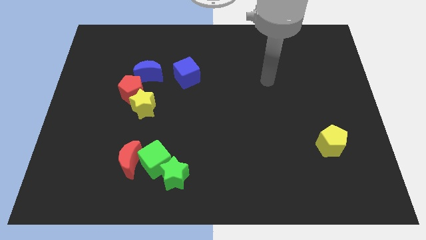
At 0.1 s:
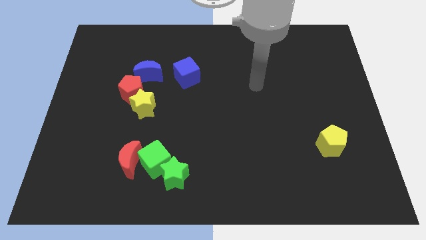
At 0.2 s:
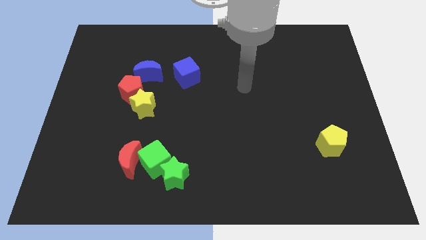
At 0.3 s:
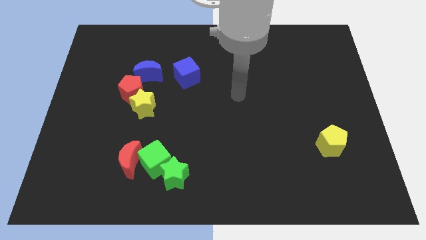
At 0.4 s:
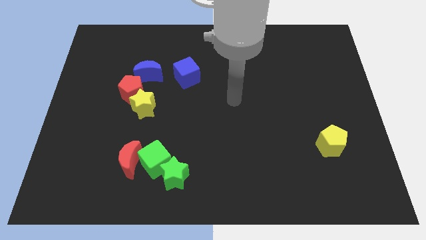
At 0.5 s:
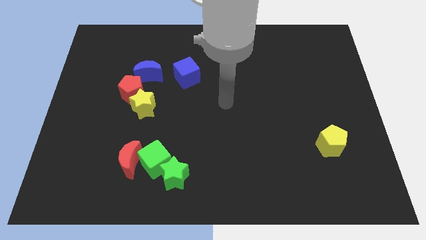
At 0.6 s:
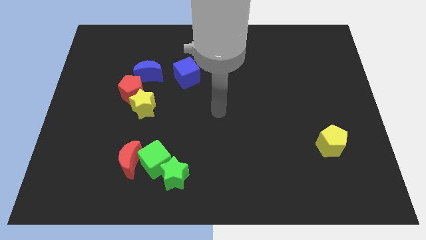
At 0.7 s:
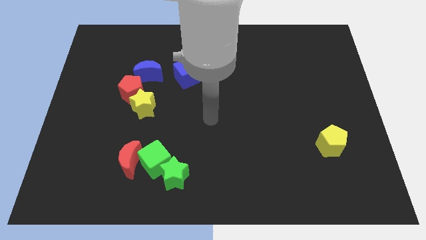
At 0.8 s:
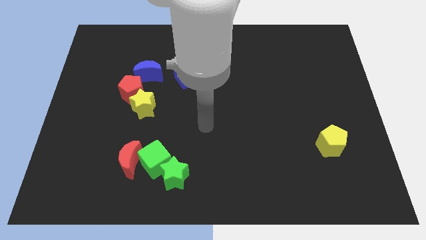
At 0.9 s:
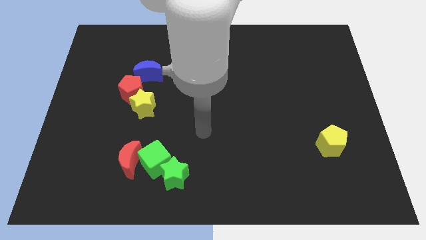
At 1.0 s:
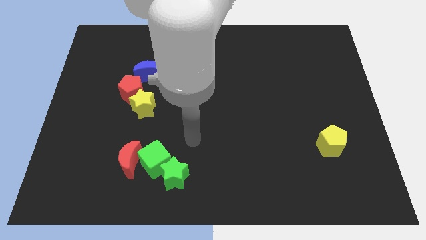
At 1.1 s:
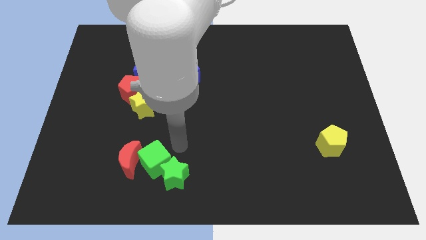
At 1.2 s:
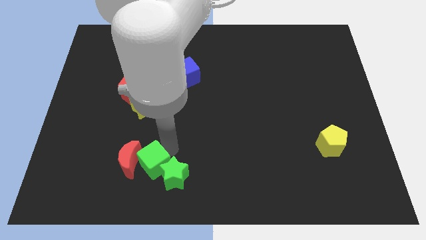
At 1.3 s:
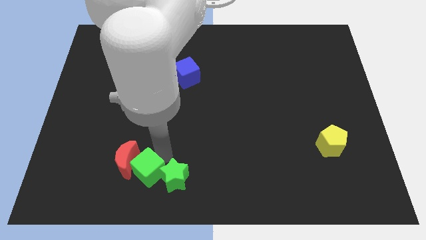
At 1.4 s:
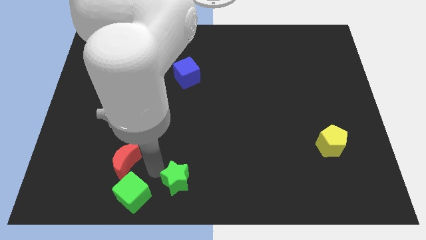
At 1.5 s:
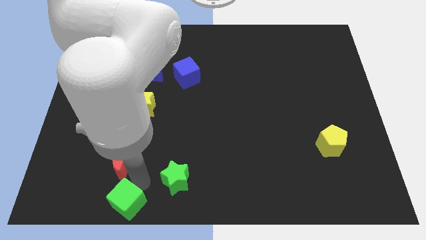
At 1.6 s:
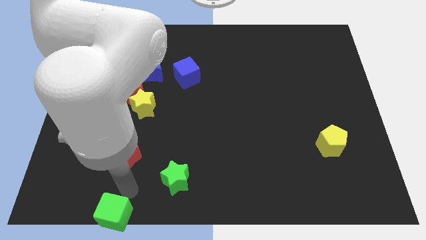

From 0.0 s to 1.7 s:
move the red moon away from the green cube

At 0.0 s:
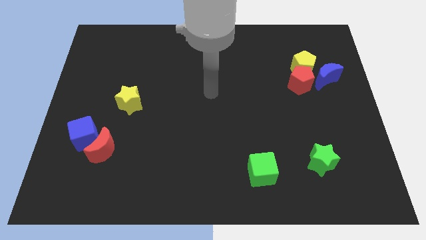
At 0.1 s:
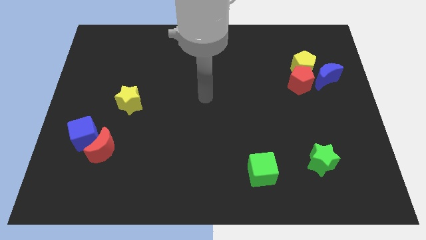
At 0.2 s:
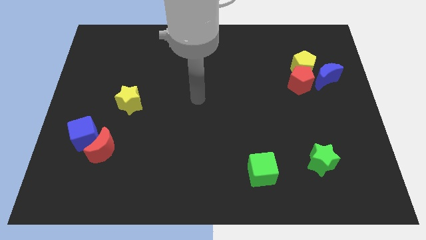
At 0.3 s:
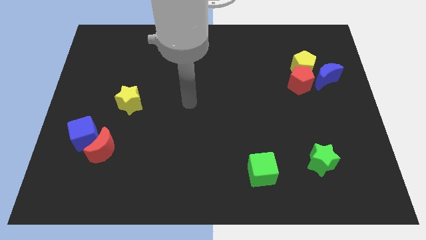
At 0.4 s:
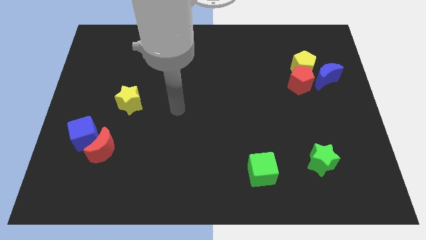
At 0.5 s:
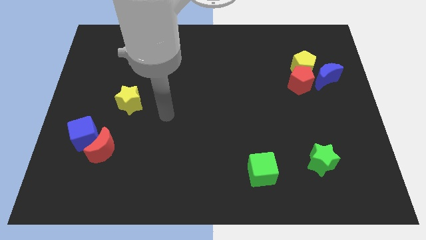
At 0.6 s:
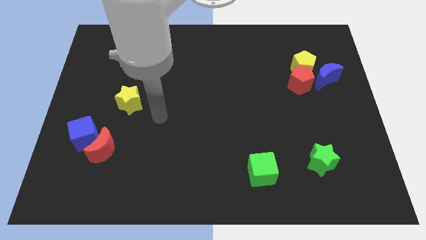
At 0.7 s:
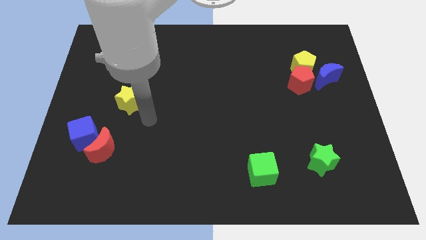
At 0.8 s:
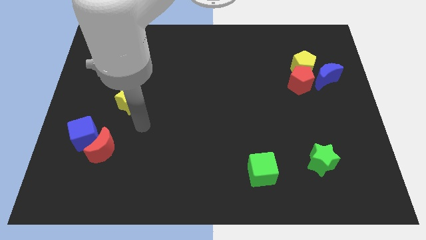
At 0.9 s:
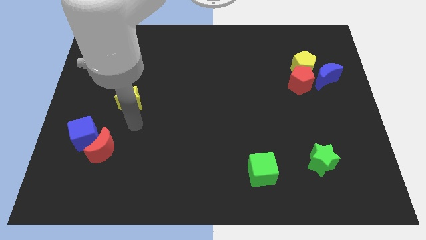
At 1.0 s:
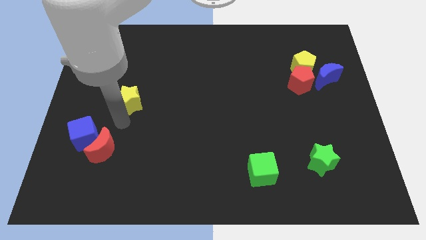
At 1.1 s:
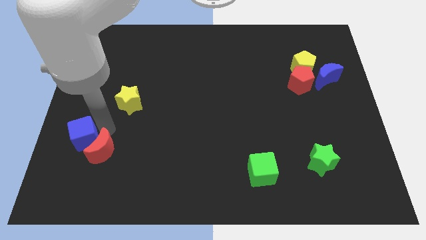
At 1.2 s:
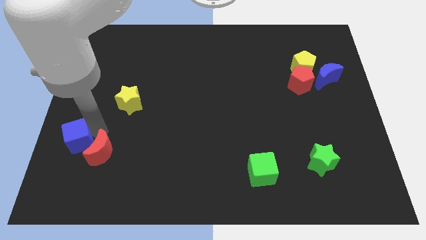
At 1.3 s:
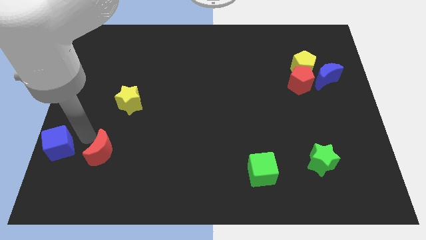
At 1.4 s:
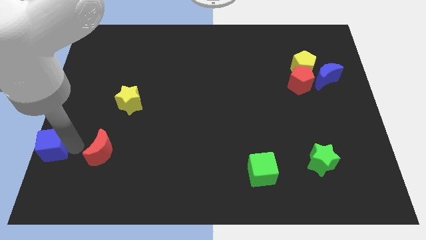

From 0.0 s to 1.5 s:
move the red moon away from the blue cube

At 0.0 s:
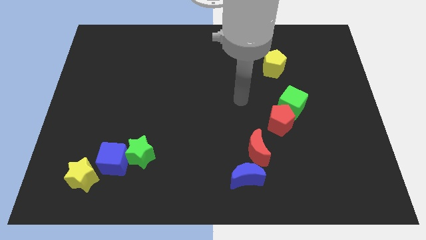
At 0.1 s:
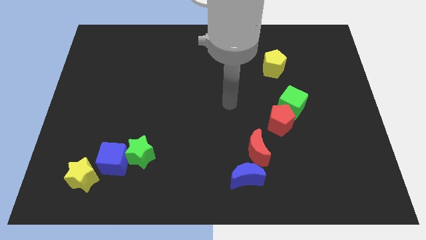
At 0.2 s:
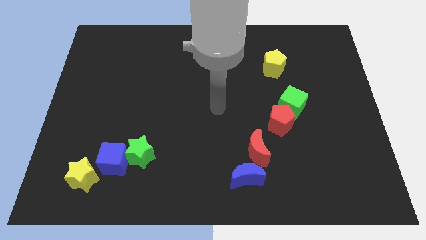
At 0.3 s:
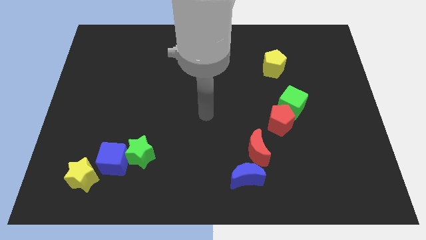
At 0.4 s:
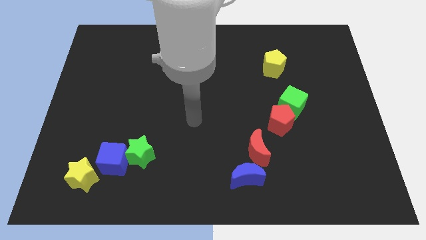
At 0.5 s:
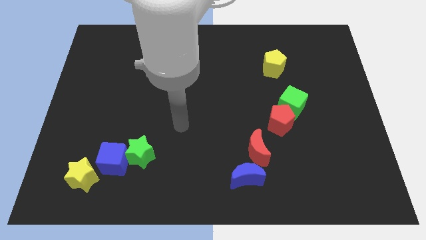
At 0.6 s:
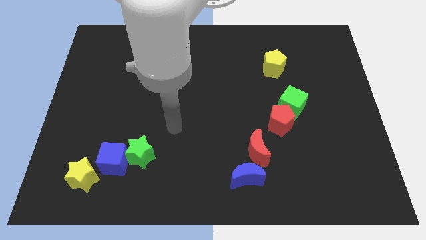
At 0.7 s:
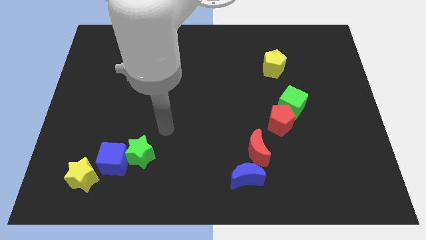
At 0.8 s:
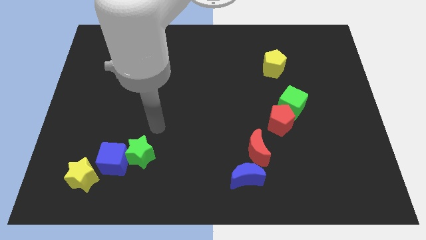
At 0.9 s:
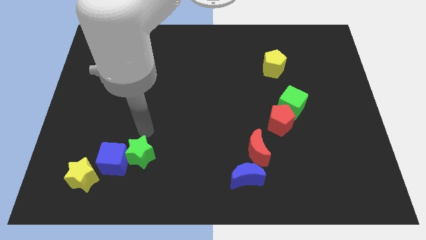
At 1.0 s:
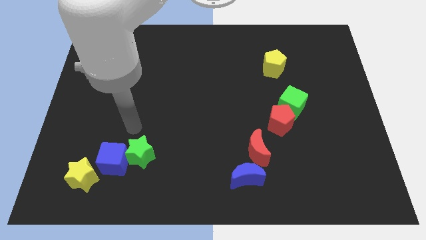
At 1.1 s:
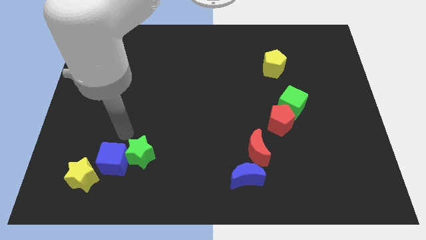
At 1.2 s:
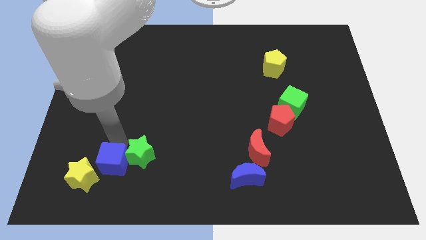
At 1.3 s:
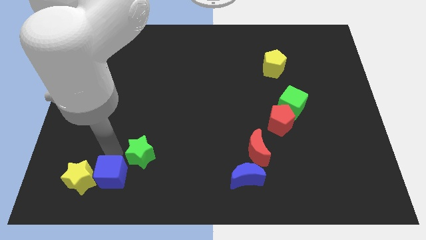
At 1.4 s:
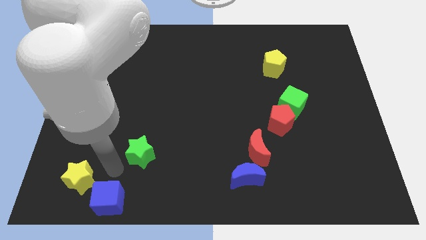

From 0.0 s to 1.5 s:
move the green star away from the blue cube

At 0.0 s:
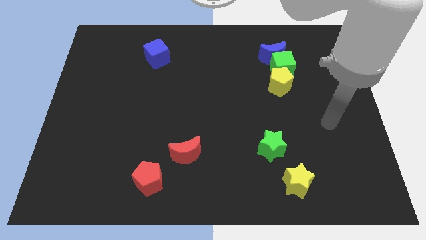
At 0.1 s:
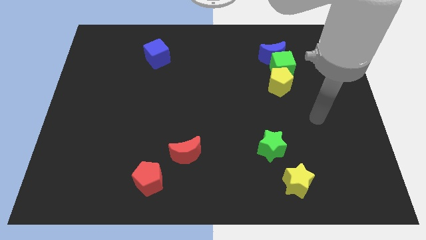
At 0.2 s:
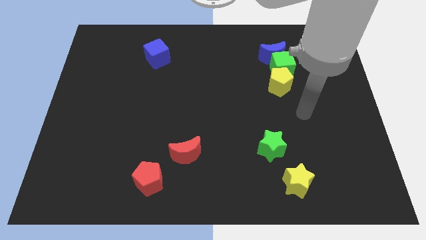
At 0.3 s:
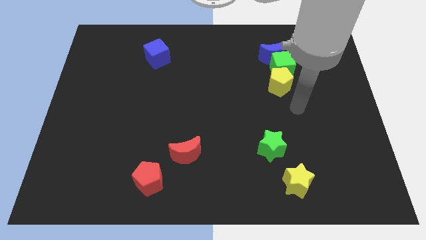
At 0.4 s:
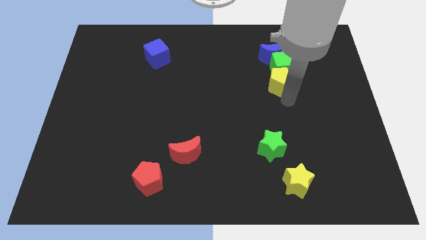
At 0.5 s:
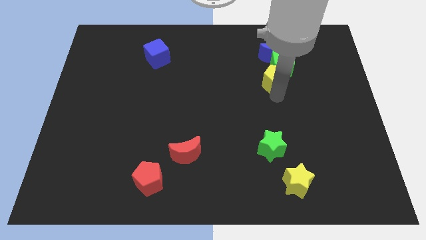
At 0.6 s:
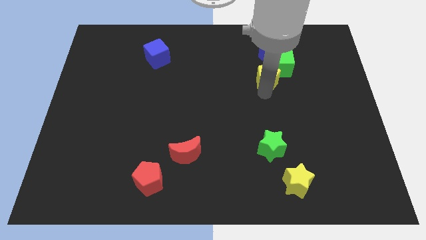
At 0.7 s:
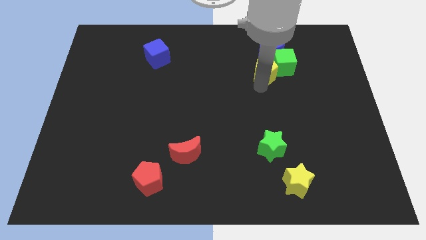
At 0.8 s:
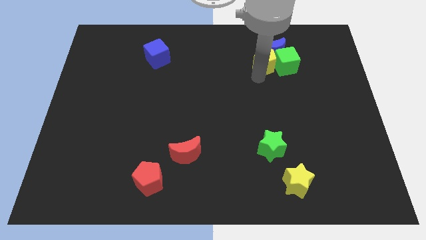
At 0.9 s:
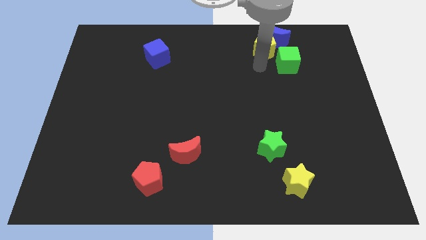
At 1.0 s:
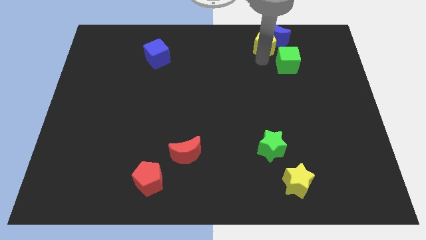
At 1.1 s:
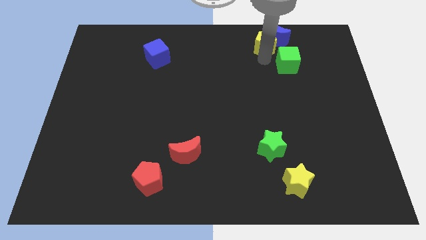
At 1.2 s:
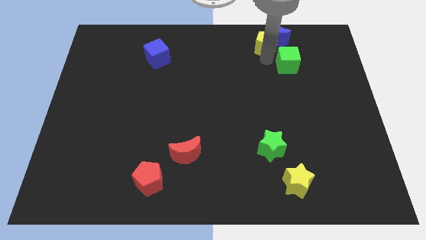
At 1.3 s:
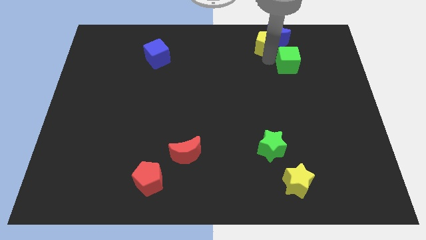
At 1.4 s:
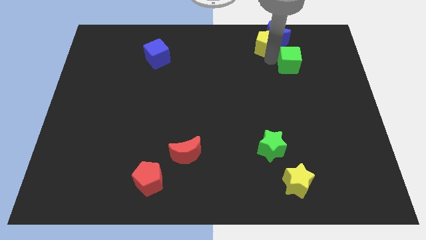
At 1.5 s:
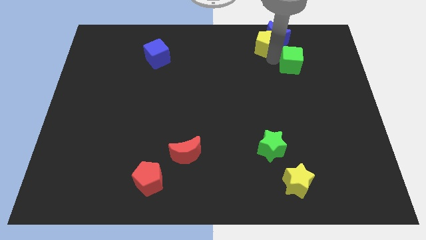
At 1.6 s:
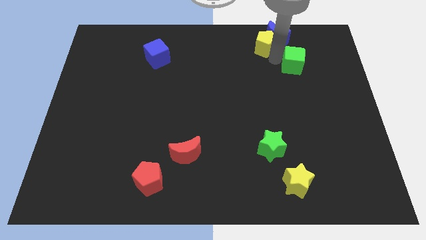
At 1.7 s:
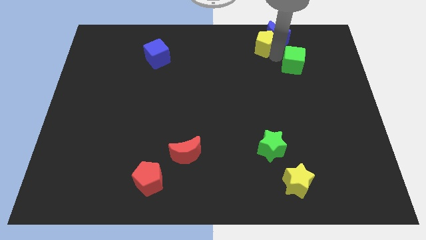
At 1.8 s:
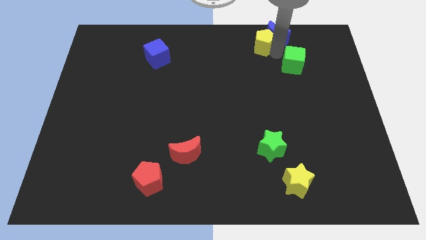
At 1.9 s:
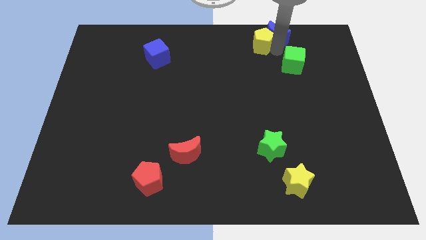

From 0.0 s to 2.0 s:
separate the green cube from the blue moon and yellow pentagon

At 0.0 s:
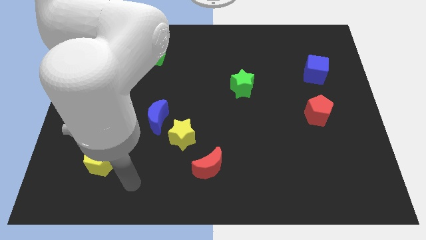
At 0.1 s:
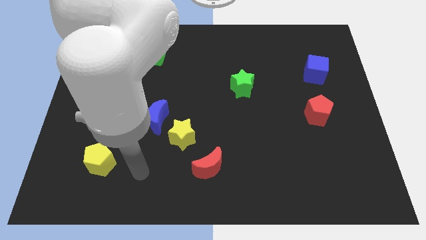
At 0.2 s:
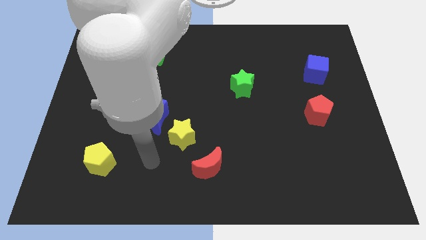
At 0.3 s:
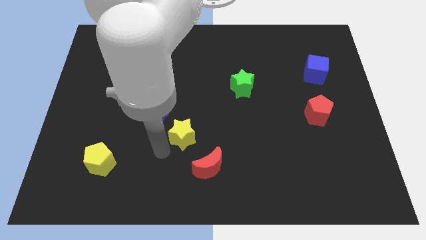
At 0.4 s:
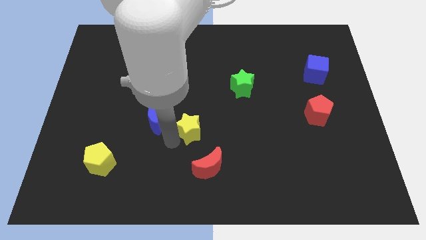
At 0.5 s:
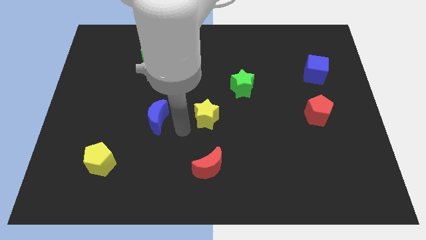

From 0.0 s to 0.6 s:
separate the blue moon from the yellow star

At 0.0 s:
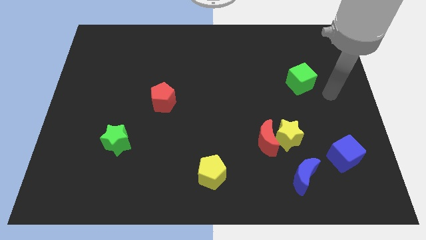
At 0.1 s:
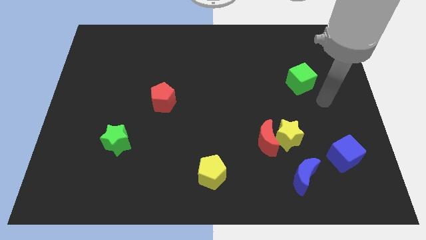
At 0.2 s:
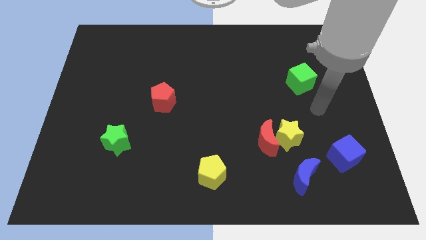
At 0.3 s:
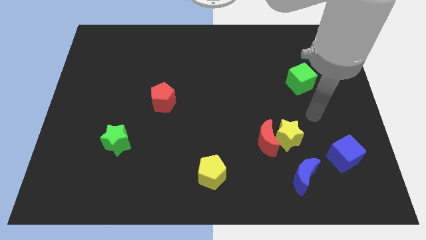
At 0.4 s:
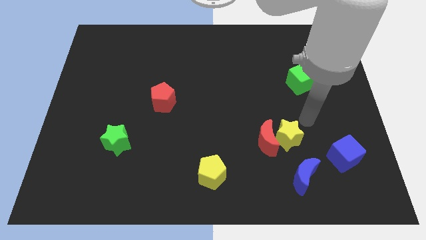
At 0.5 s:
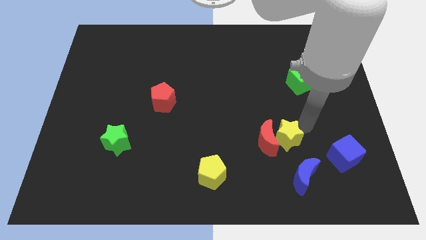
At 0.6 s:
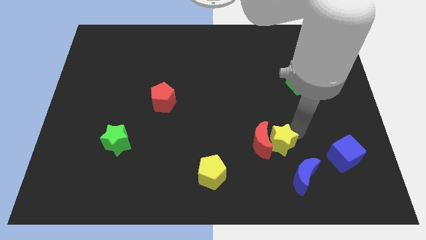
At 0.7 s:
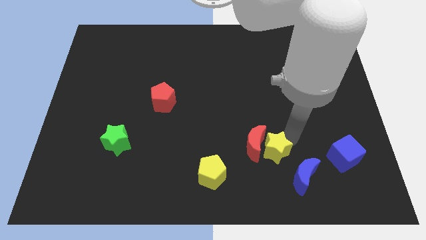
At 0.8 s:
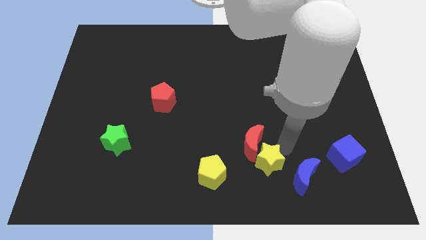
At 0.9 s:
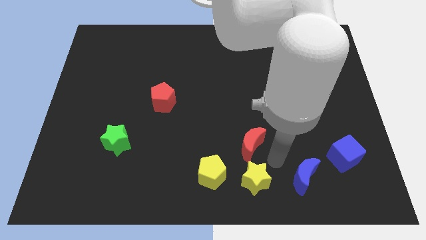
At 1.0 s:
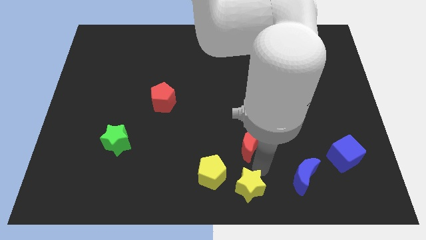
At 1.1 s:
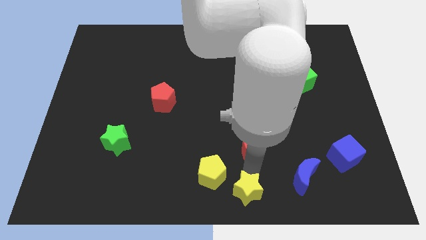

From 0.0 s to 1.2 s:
move the red moon away from the yellow star

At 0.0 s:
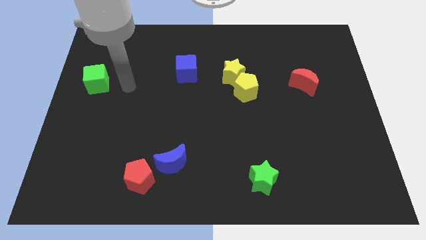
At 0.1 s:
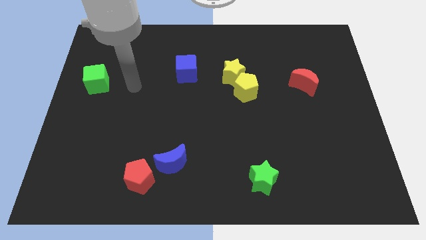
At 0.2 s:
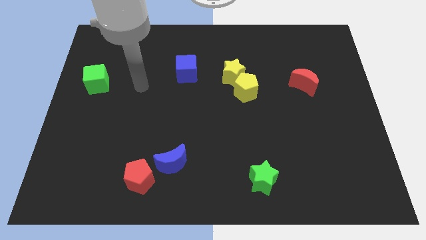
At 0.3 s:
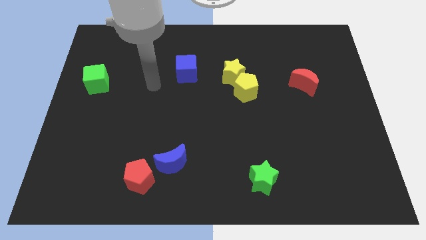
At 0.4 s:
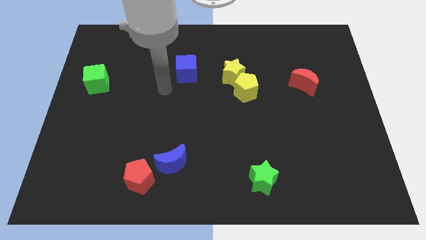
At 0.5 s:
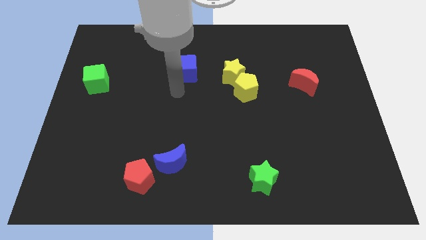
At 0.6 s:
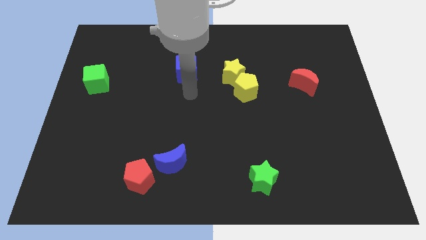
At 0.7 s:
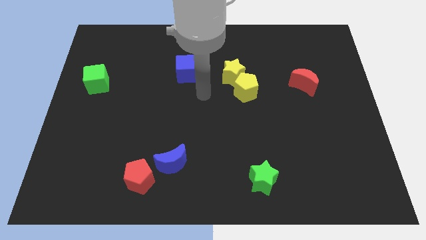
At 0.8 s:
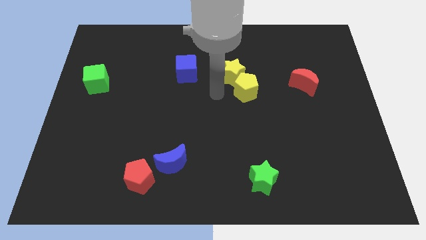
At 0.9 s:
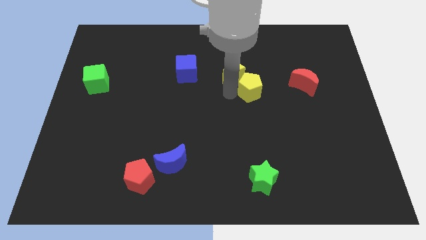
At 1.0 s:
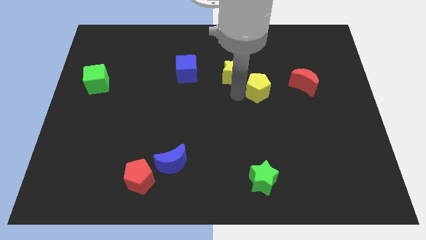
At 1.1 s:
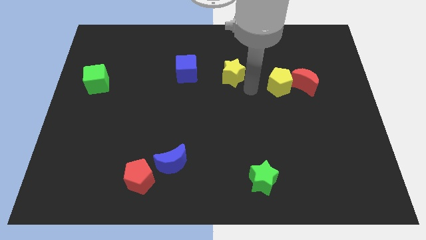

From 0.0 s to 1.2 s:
move the yellow star away from the yellow pentagon
